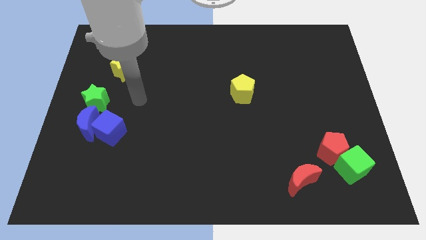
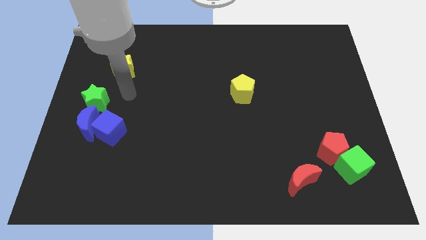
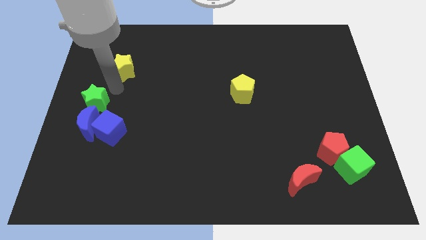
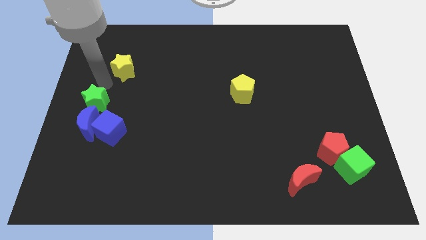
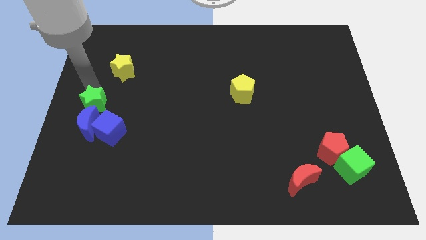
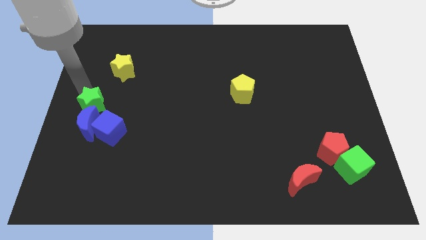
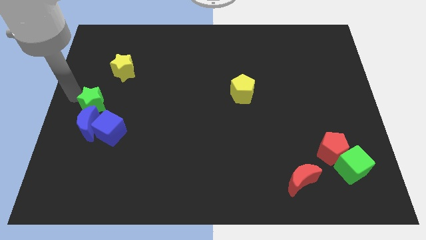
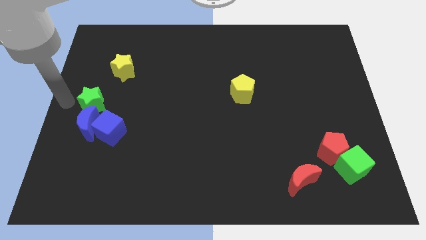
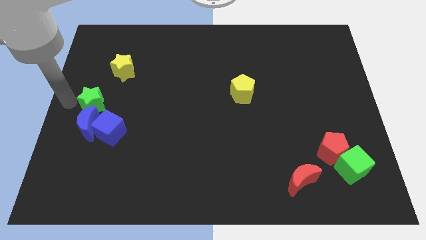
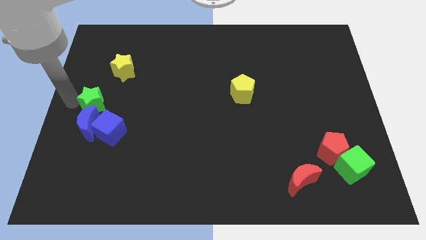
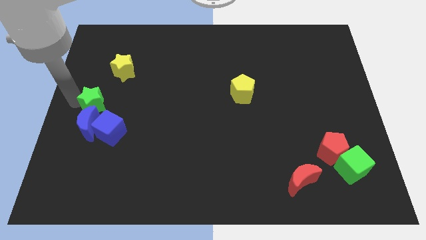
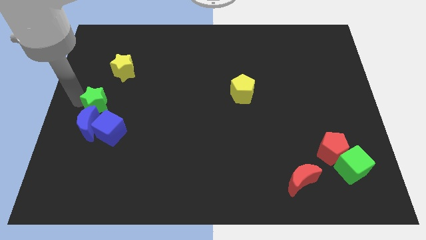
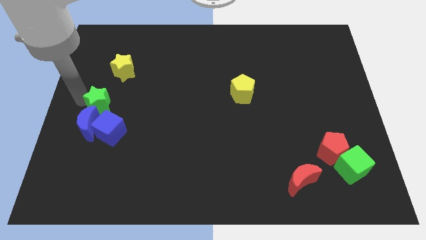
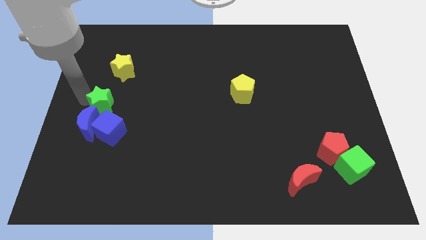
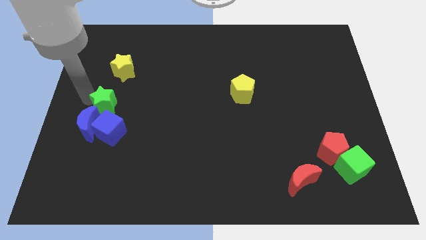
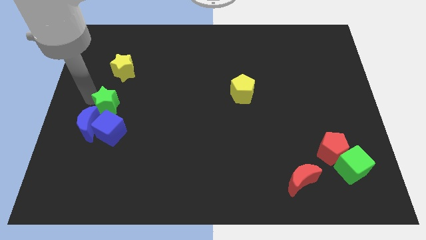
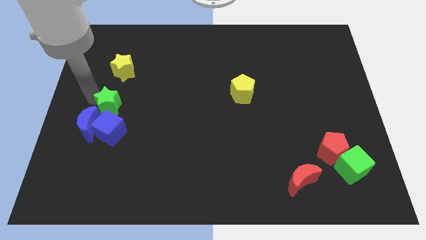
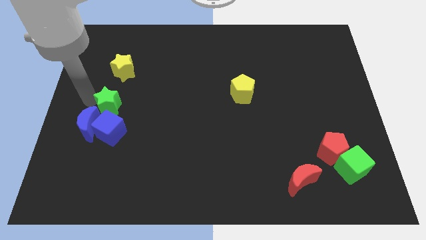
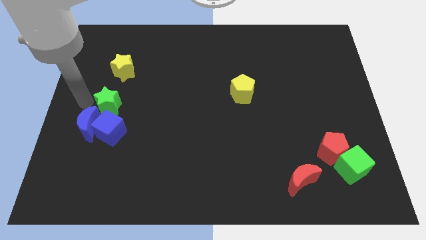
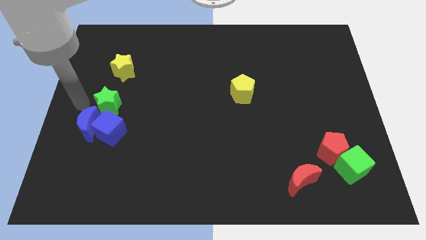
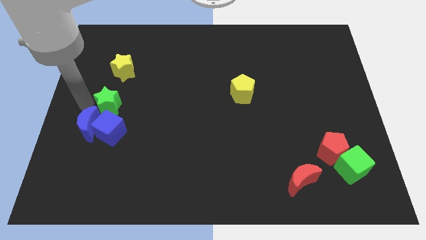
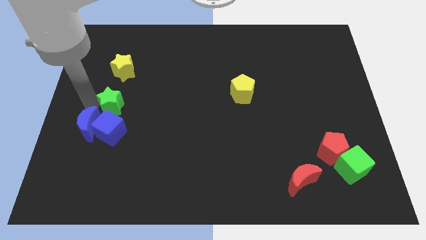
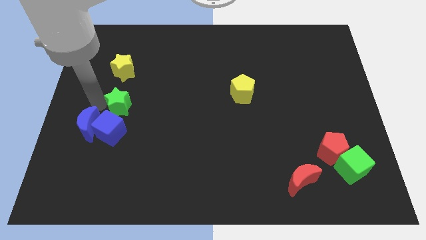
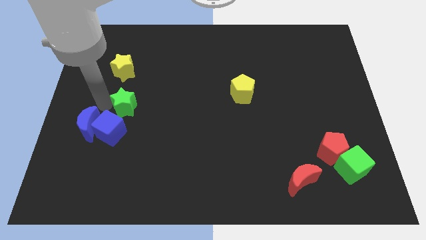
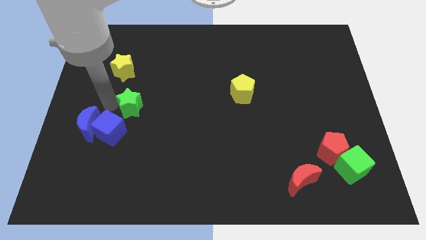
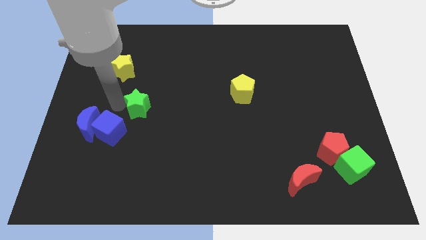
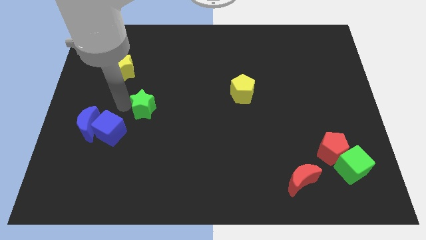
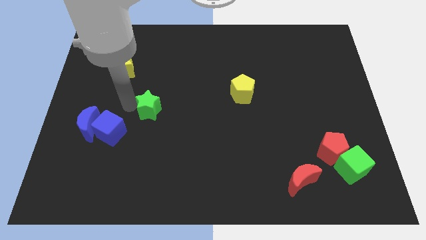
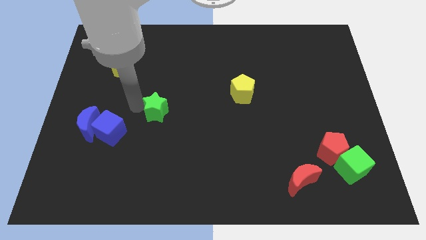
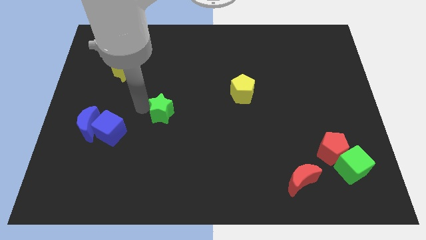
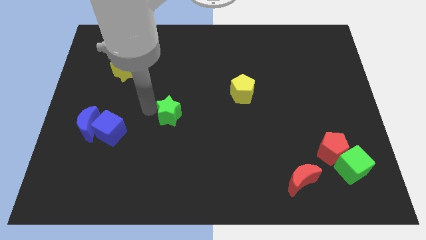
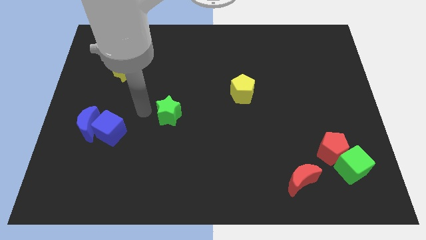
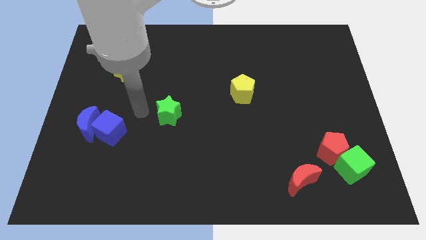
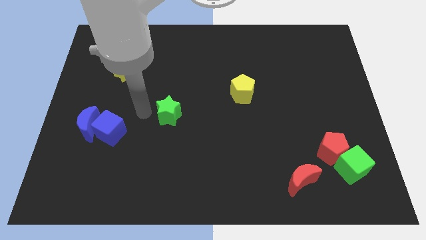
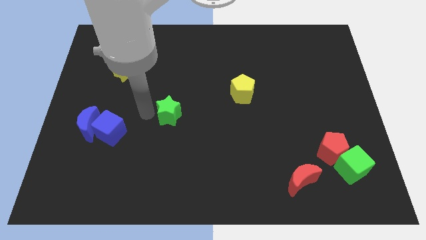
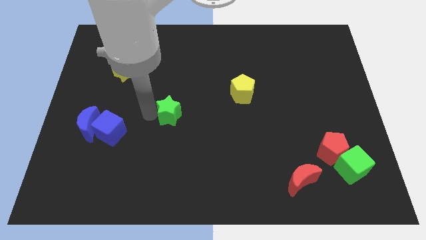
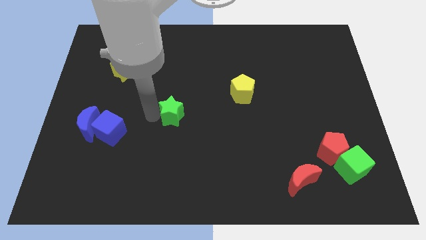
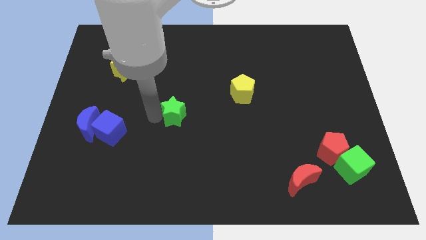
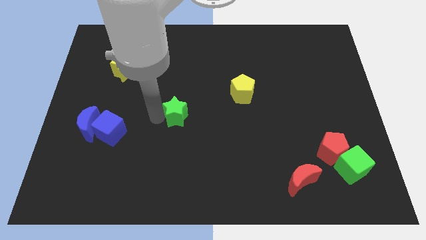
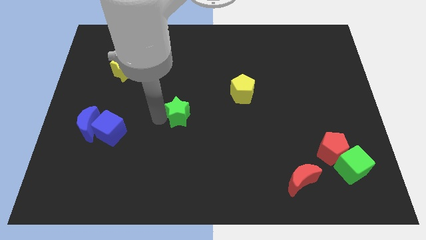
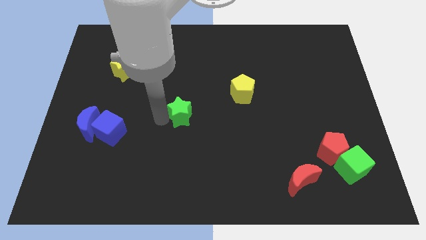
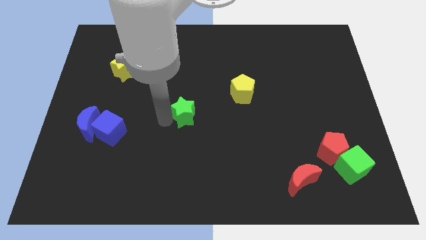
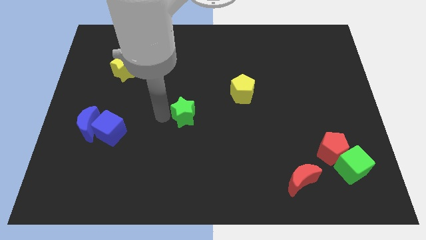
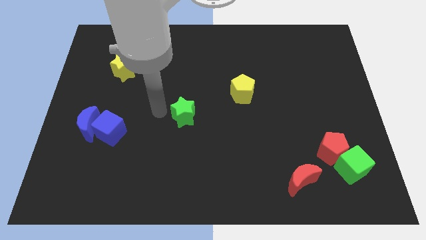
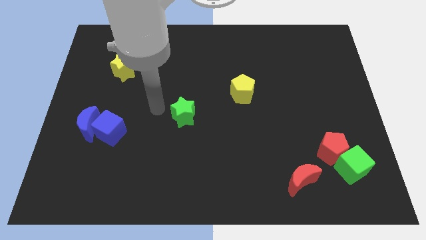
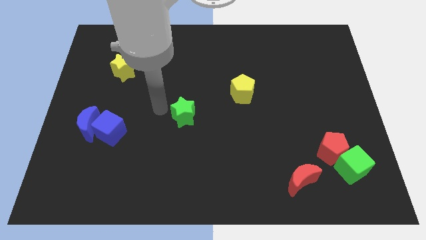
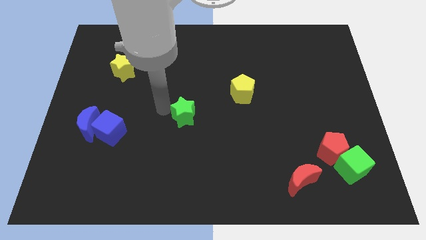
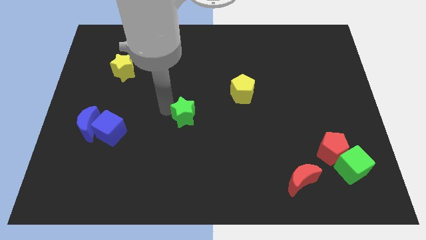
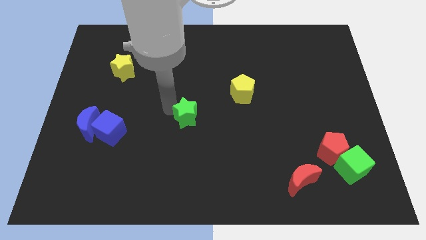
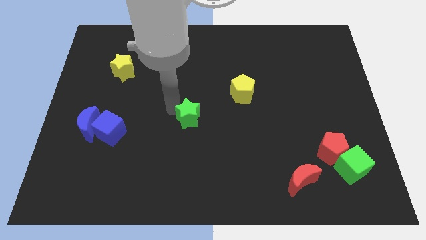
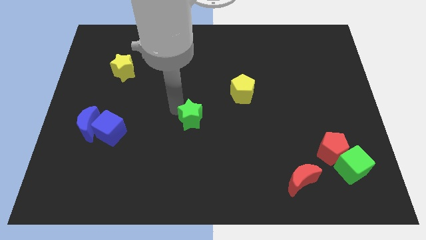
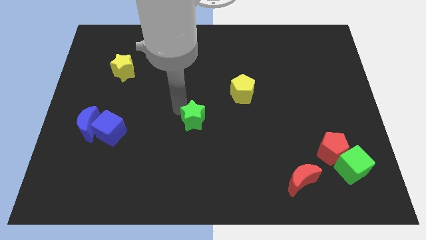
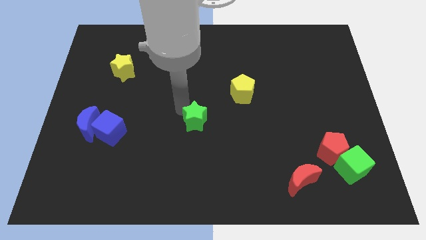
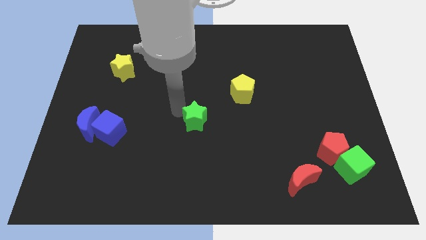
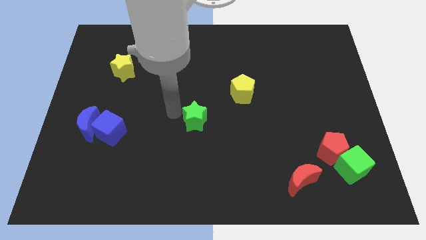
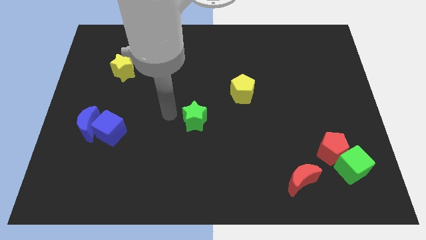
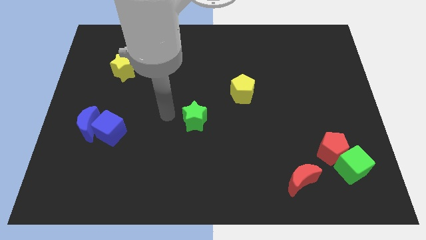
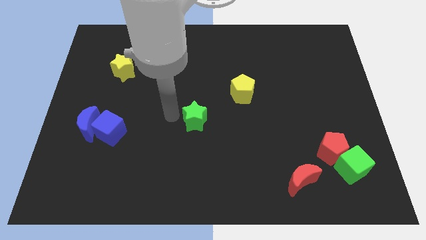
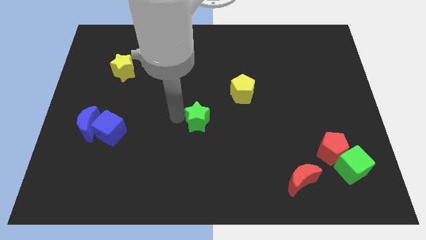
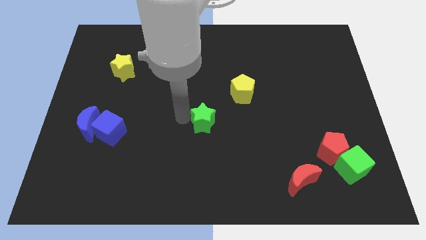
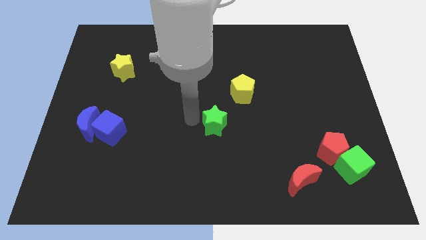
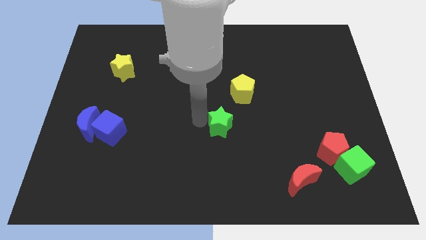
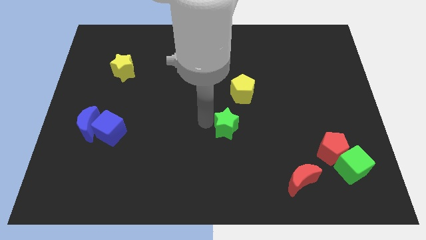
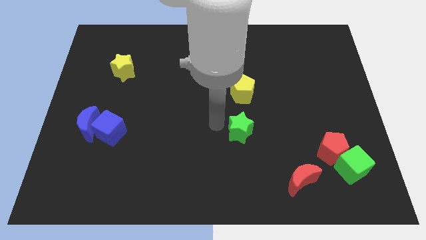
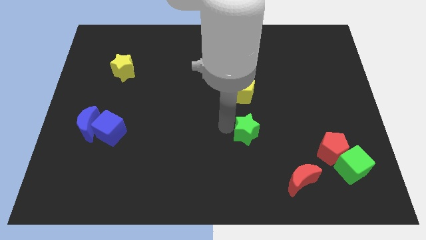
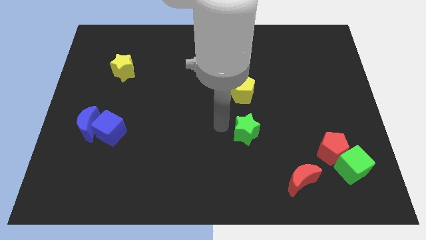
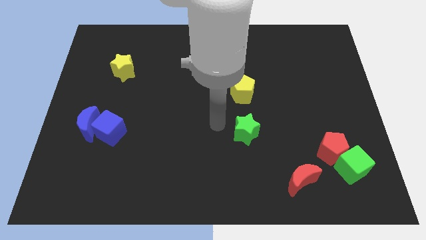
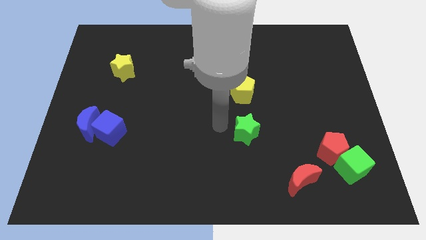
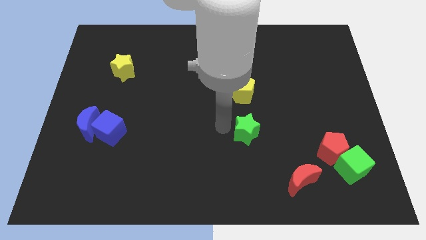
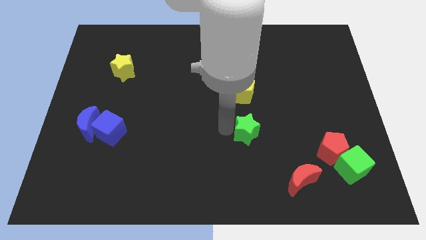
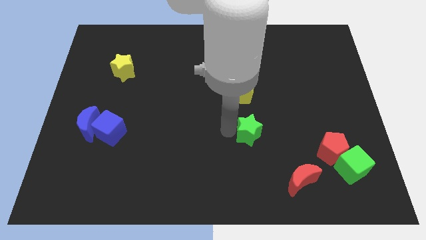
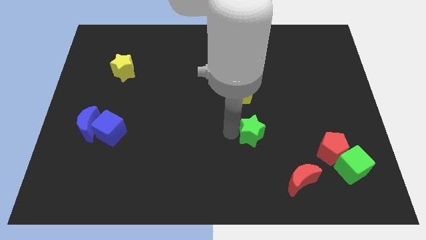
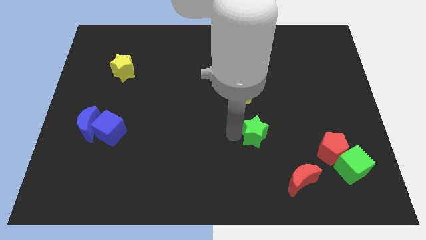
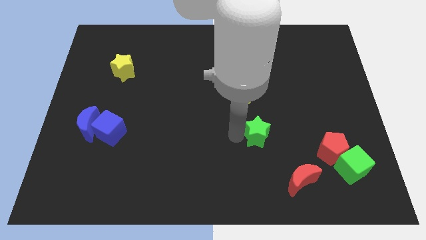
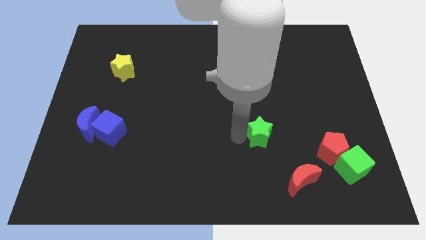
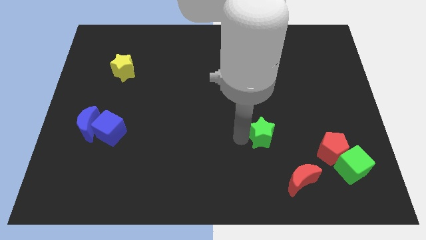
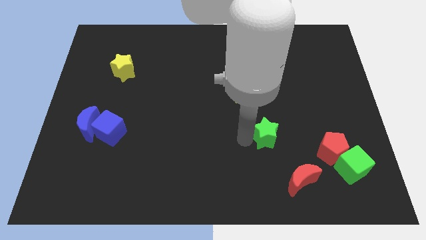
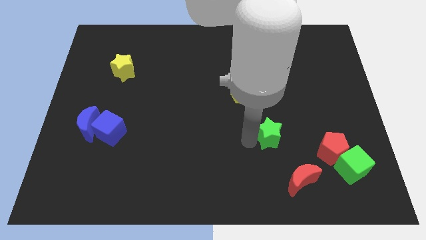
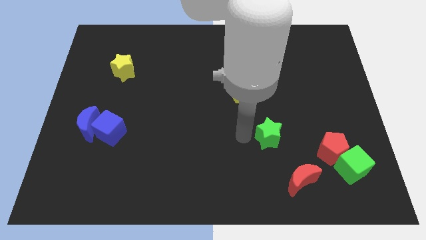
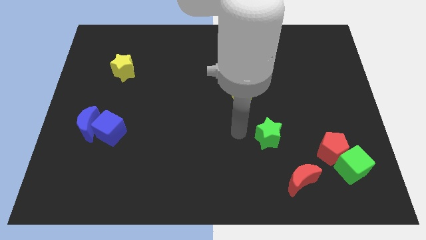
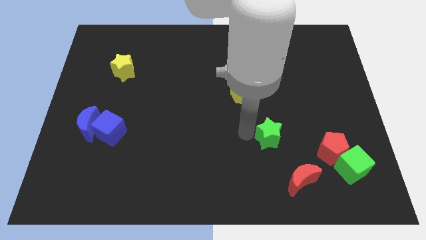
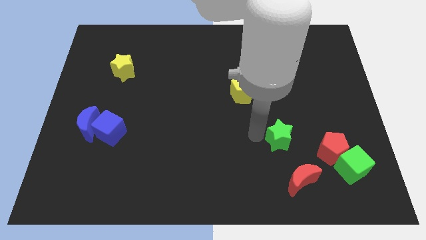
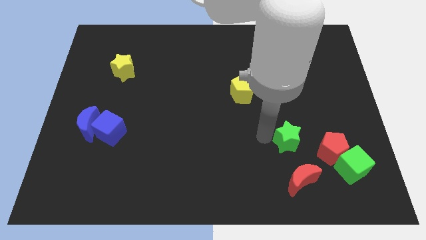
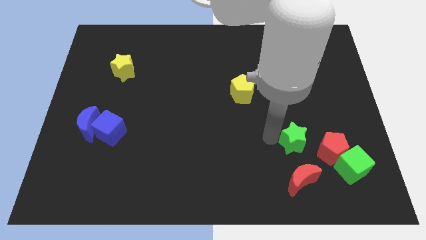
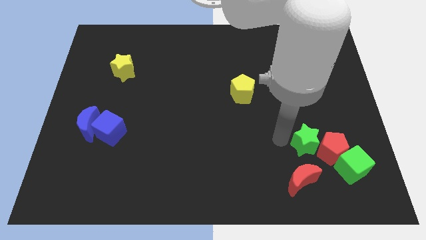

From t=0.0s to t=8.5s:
move the green star to the red pentagon
